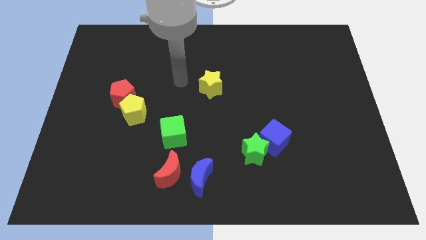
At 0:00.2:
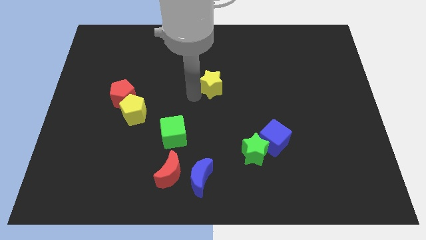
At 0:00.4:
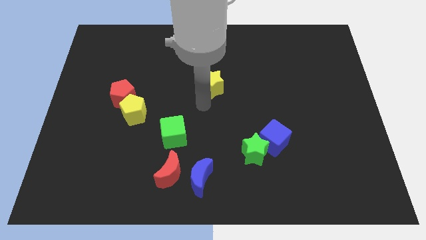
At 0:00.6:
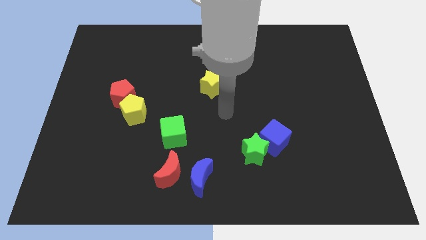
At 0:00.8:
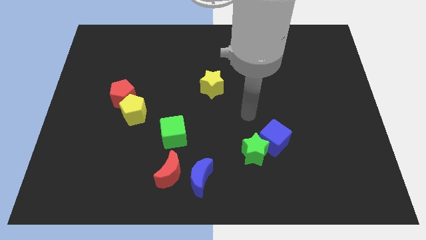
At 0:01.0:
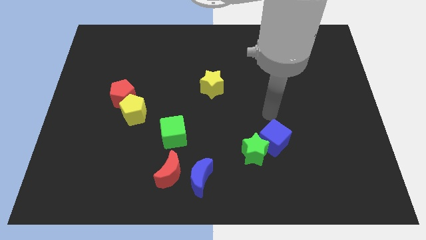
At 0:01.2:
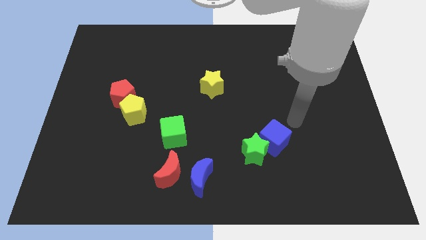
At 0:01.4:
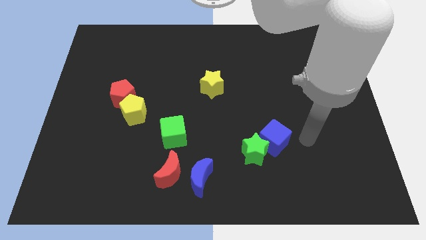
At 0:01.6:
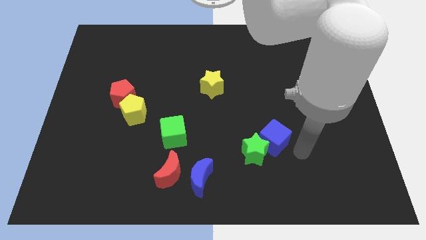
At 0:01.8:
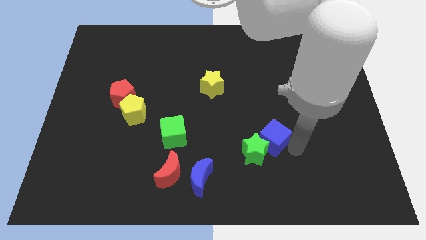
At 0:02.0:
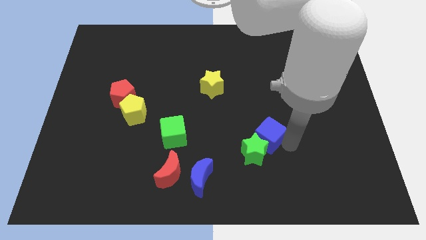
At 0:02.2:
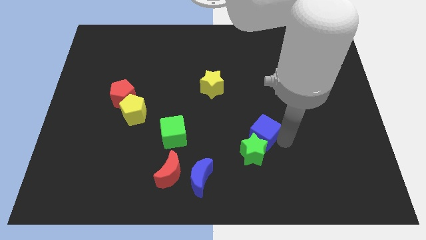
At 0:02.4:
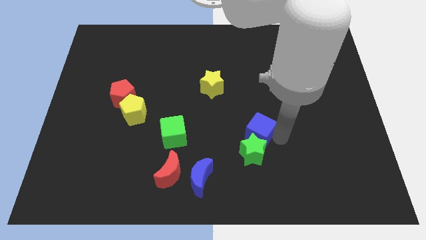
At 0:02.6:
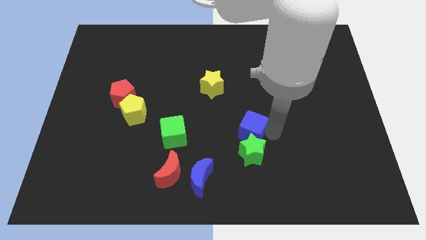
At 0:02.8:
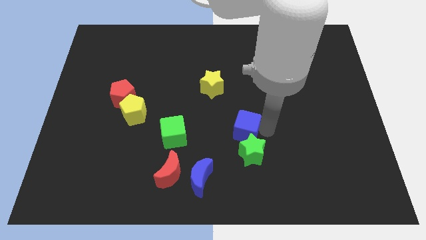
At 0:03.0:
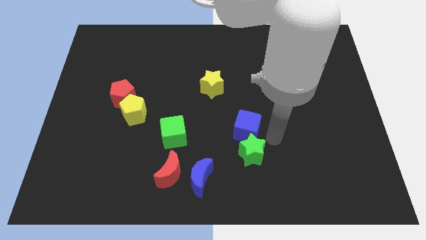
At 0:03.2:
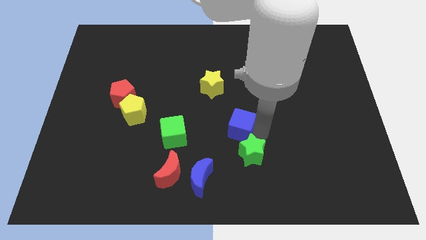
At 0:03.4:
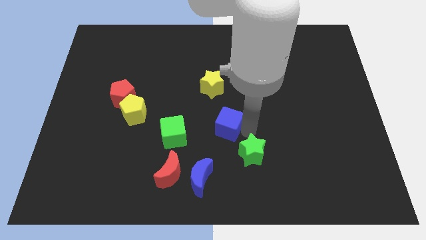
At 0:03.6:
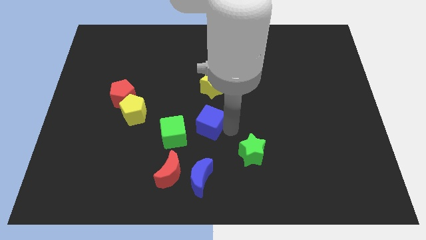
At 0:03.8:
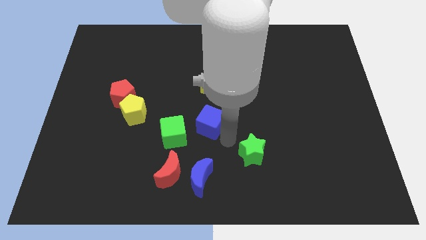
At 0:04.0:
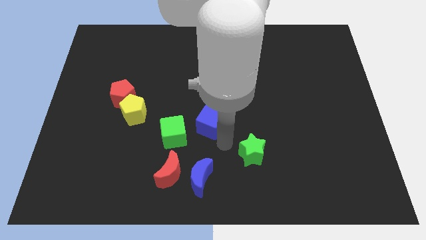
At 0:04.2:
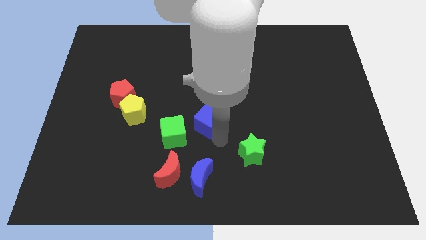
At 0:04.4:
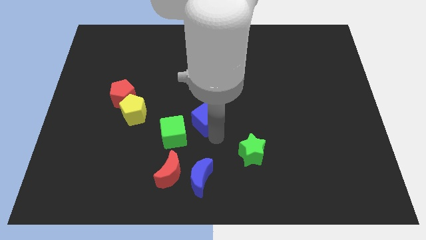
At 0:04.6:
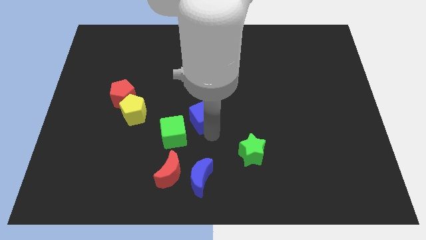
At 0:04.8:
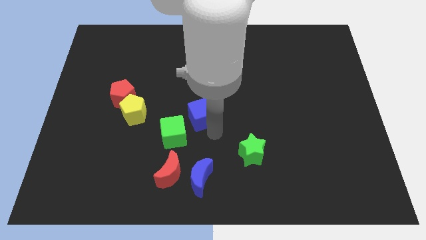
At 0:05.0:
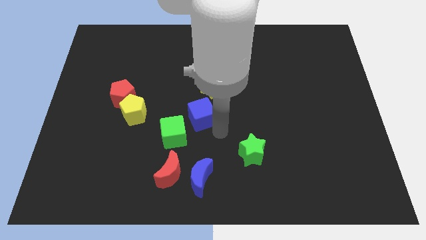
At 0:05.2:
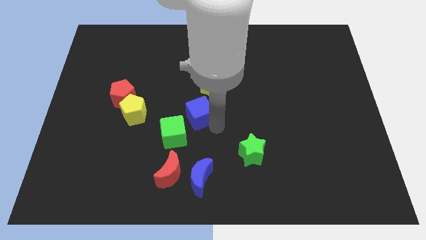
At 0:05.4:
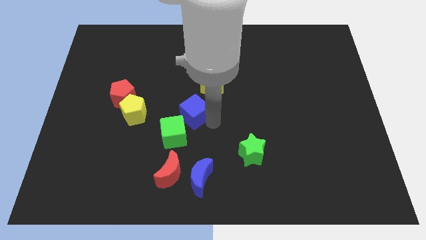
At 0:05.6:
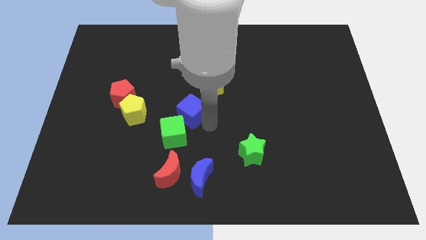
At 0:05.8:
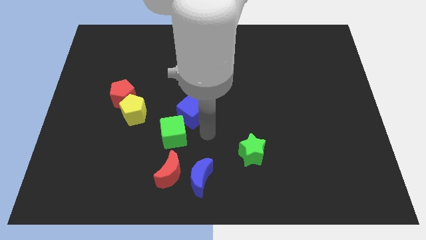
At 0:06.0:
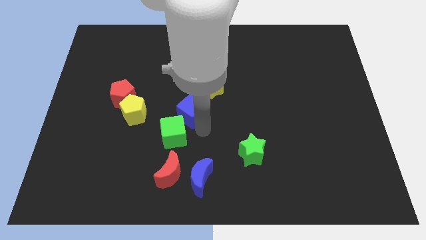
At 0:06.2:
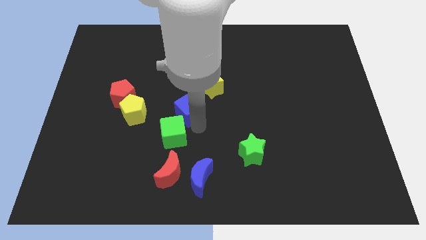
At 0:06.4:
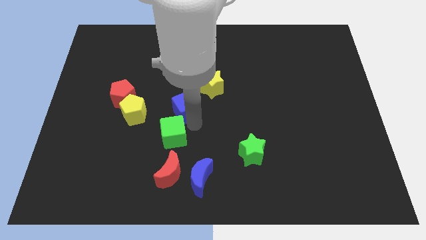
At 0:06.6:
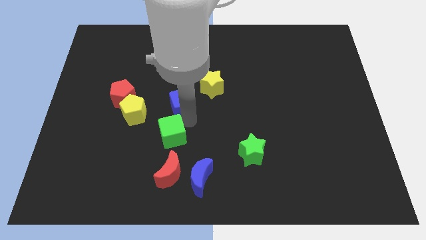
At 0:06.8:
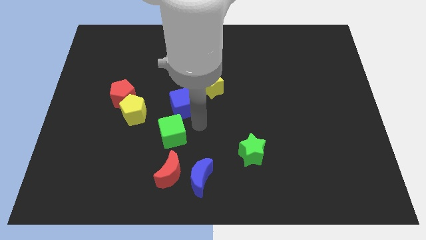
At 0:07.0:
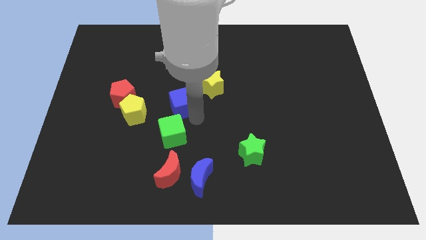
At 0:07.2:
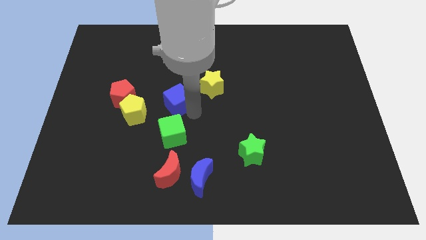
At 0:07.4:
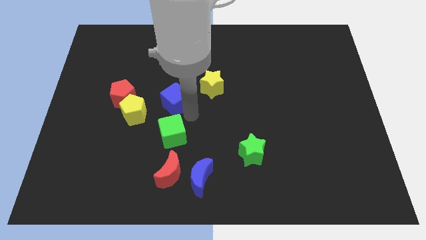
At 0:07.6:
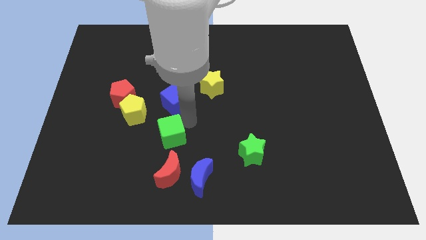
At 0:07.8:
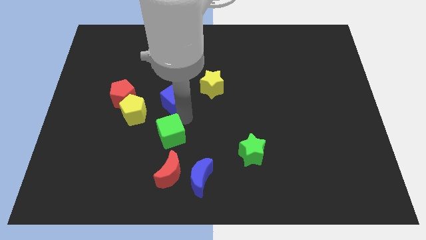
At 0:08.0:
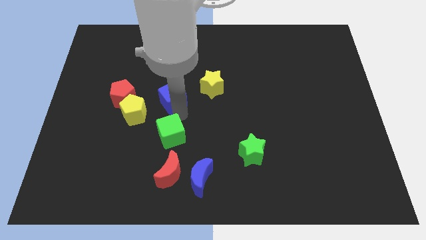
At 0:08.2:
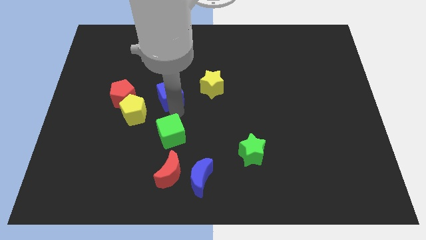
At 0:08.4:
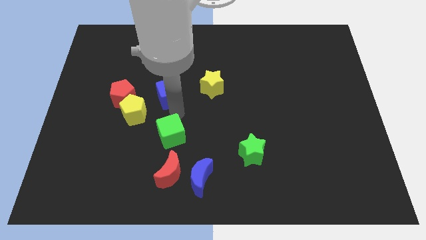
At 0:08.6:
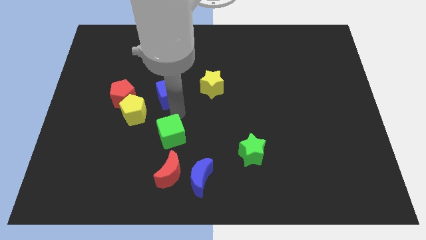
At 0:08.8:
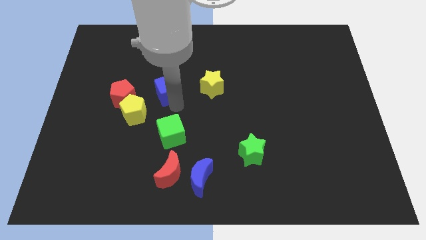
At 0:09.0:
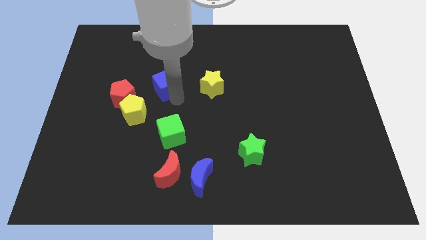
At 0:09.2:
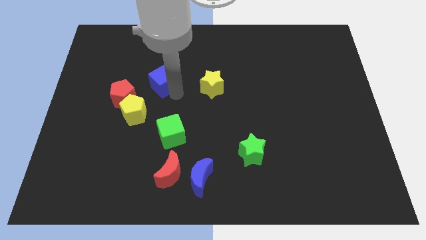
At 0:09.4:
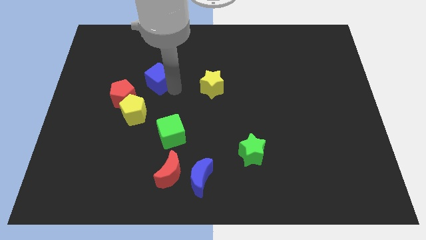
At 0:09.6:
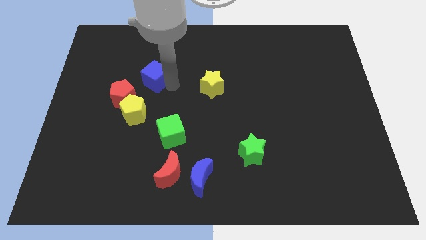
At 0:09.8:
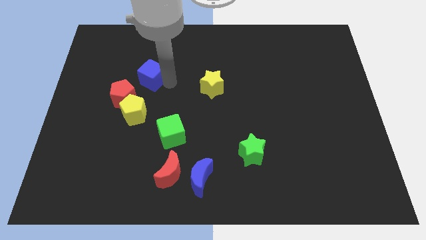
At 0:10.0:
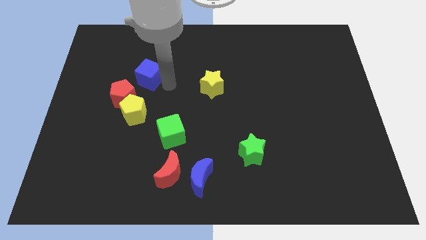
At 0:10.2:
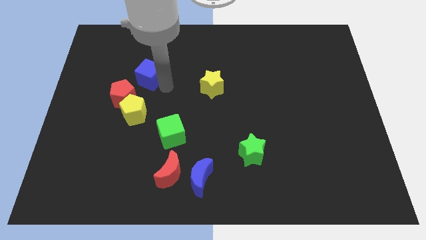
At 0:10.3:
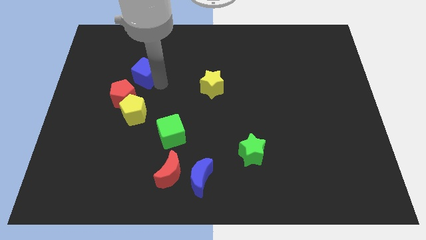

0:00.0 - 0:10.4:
push the blue cube to the top side of the red pentagon

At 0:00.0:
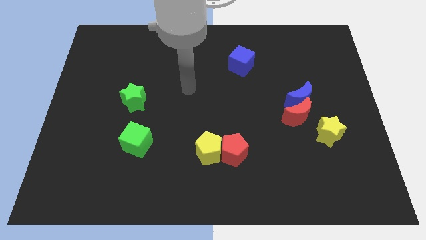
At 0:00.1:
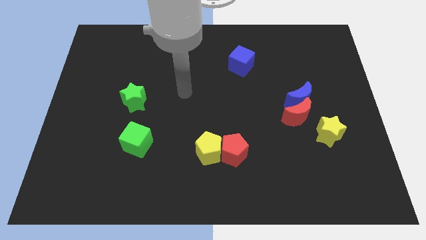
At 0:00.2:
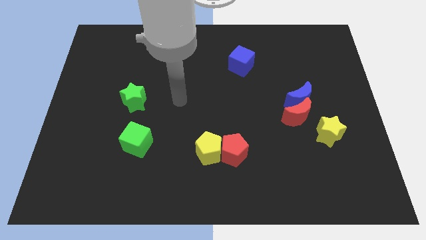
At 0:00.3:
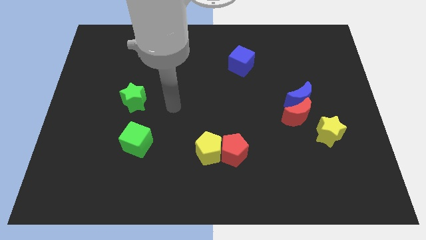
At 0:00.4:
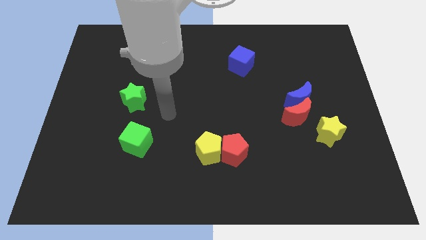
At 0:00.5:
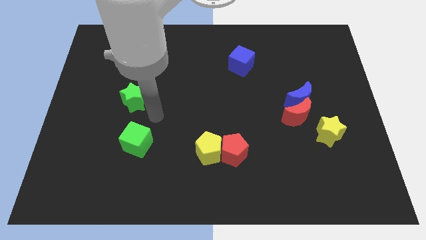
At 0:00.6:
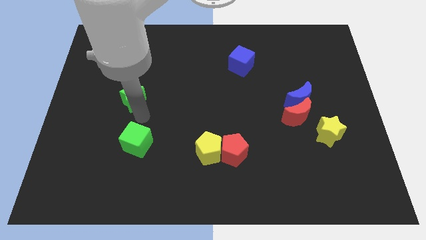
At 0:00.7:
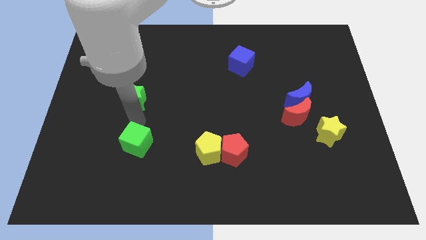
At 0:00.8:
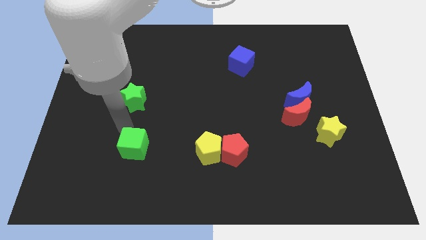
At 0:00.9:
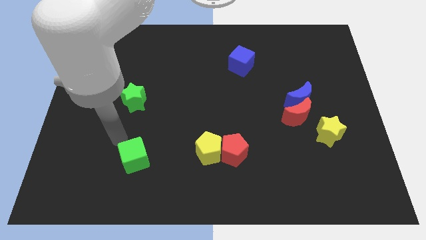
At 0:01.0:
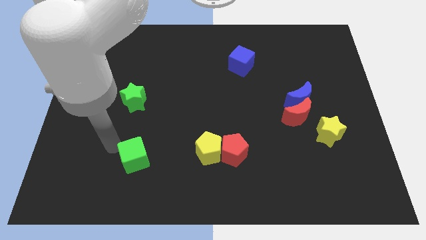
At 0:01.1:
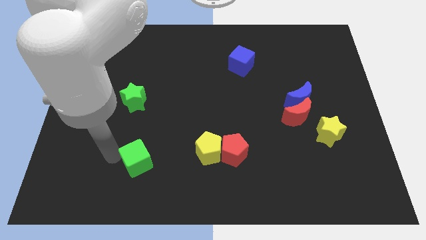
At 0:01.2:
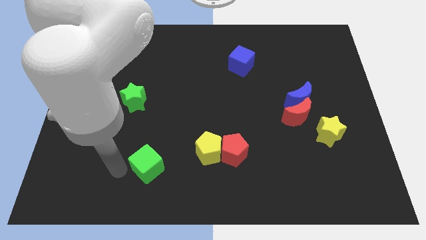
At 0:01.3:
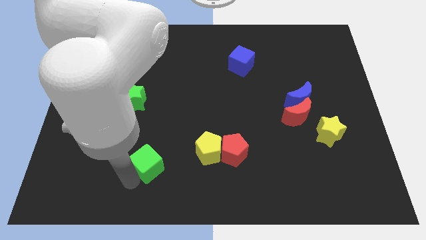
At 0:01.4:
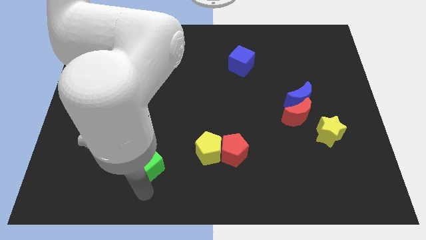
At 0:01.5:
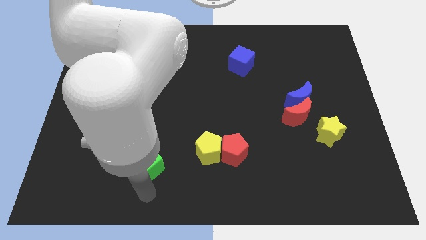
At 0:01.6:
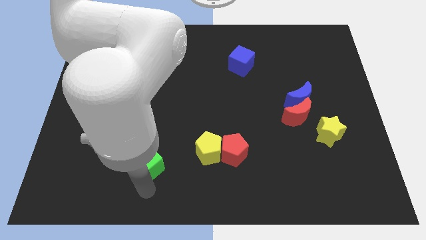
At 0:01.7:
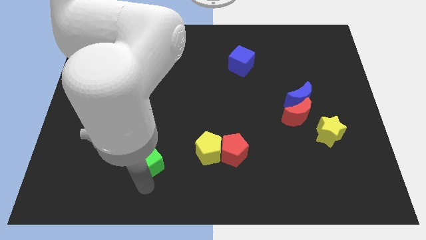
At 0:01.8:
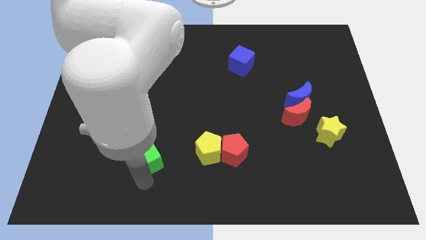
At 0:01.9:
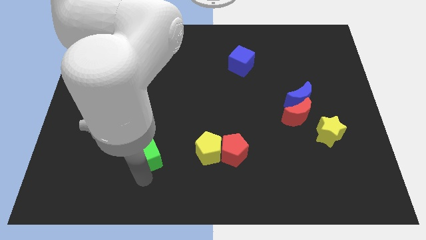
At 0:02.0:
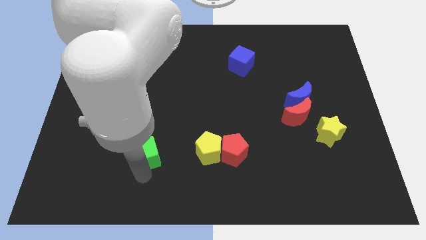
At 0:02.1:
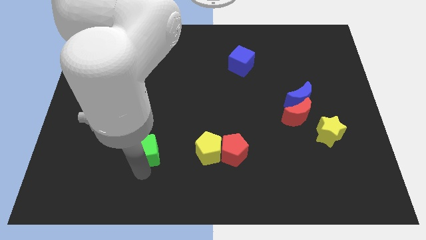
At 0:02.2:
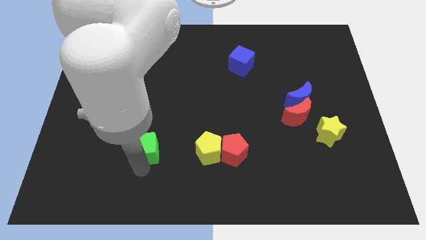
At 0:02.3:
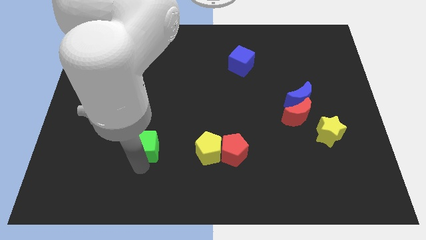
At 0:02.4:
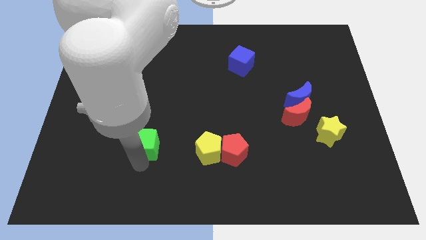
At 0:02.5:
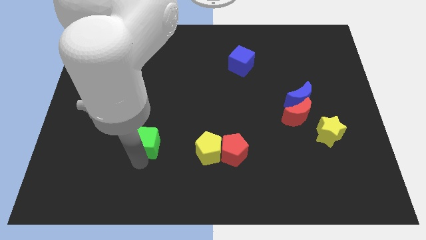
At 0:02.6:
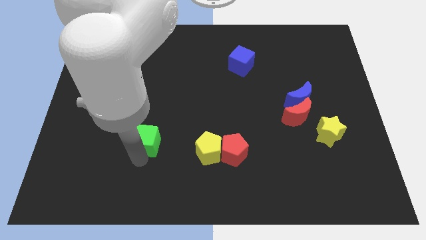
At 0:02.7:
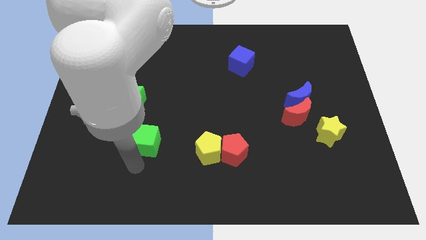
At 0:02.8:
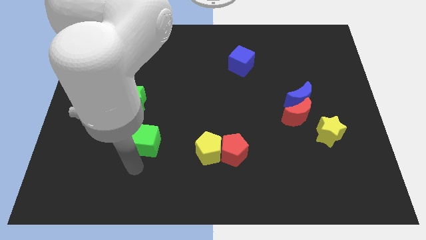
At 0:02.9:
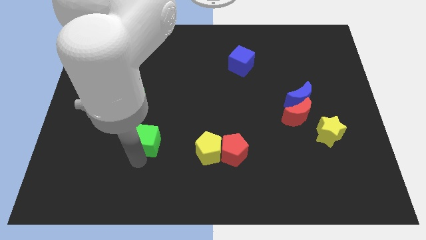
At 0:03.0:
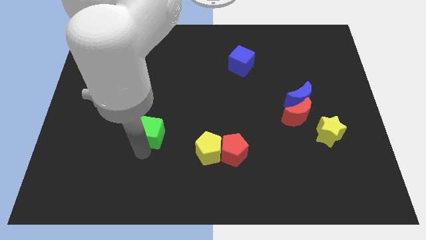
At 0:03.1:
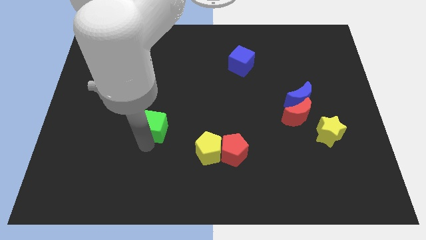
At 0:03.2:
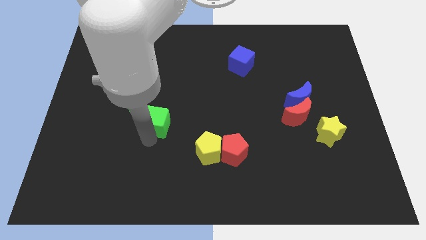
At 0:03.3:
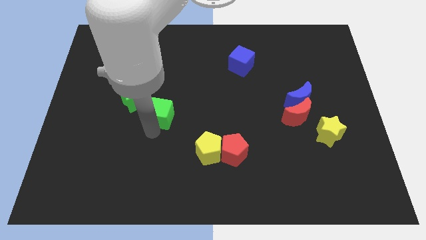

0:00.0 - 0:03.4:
slide the green cube just right of the green star
